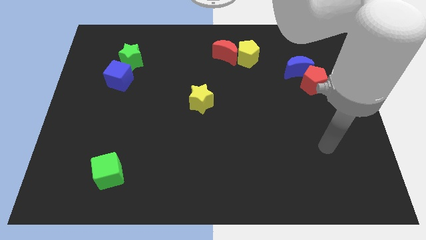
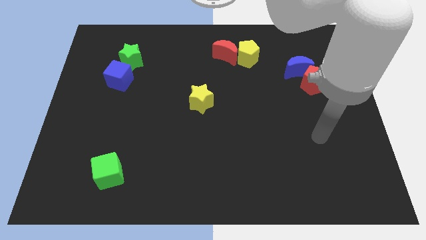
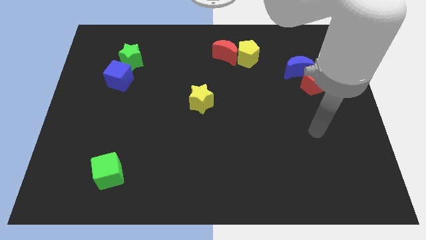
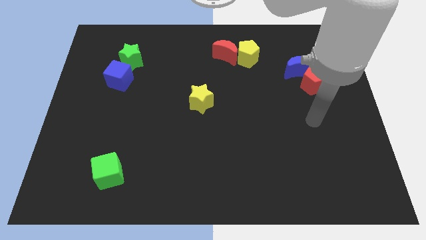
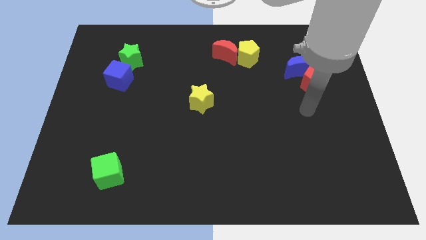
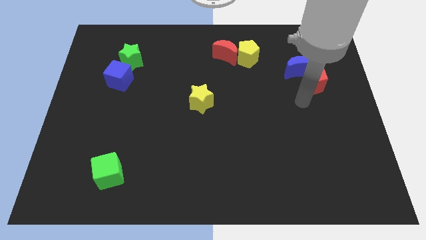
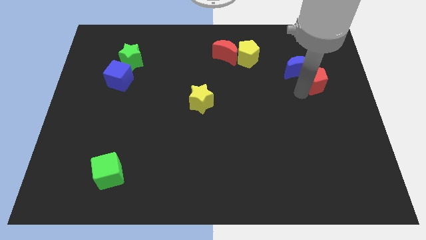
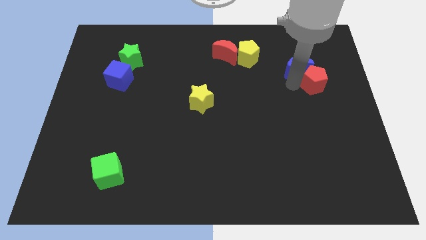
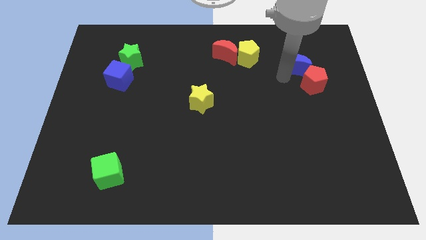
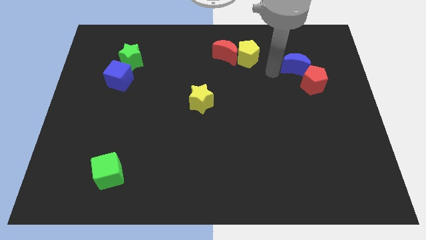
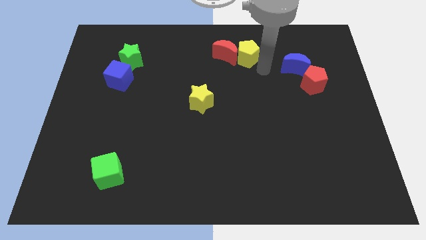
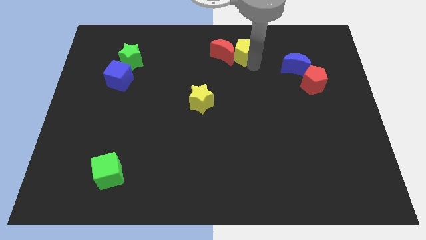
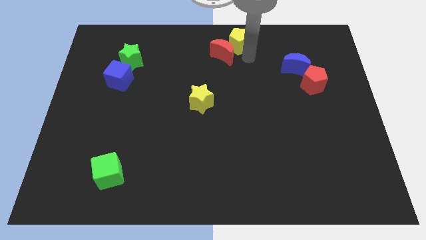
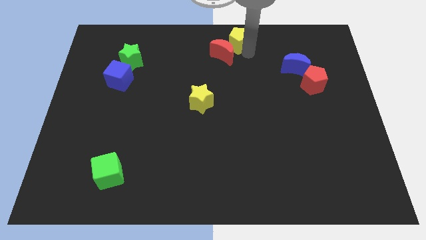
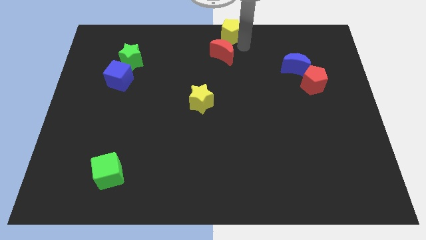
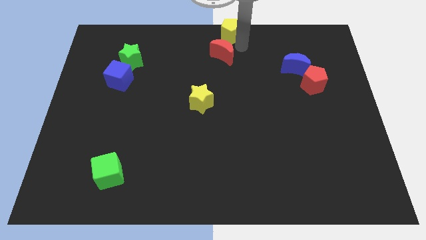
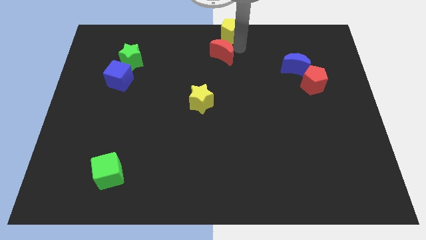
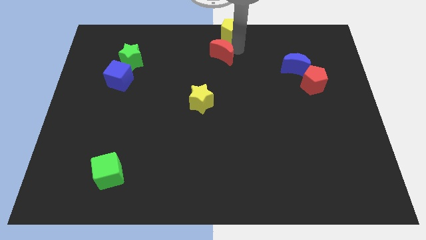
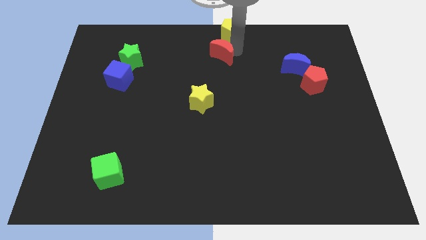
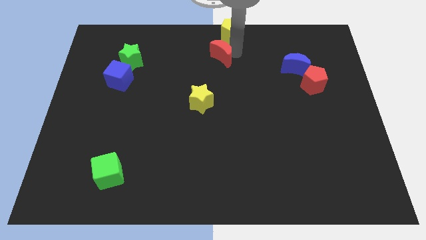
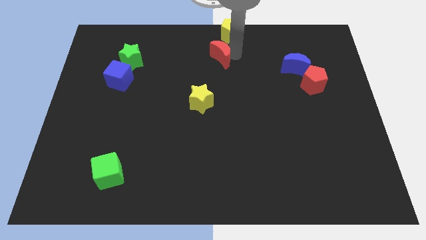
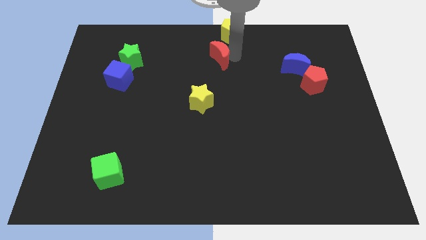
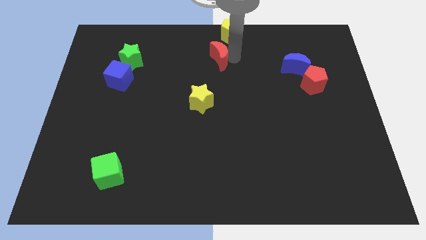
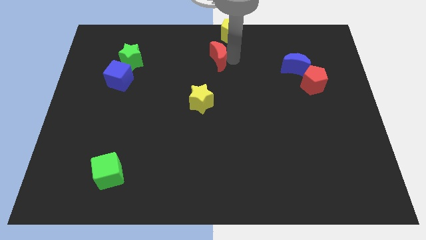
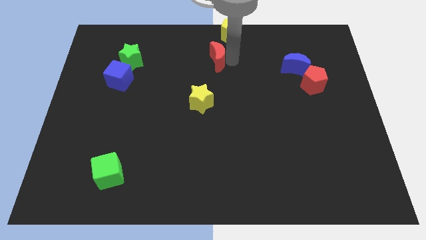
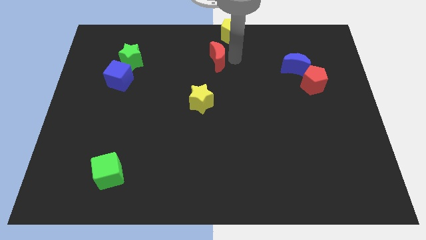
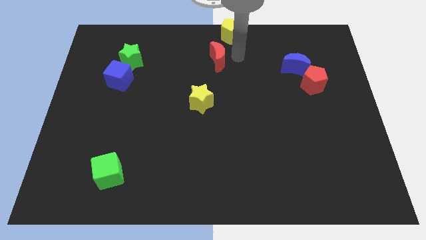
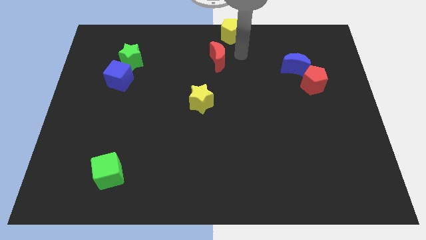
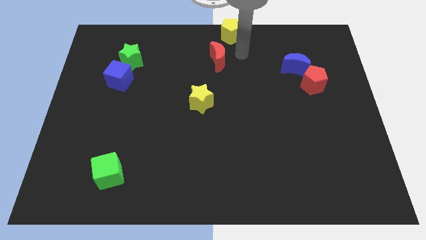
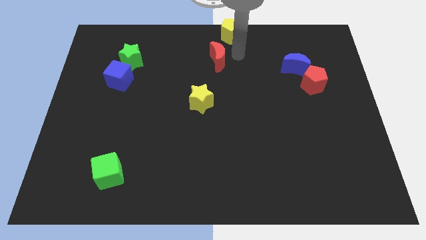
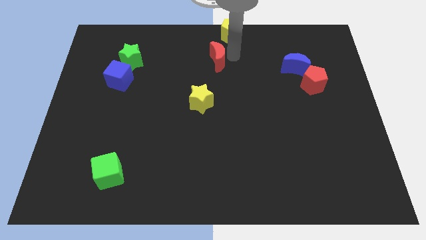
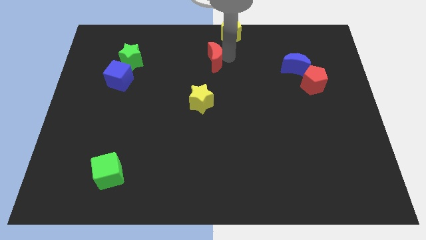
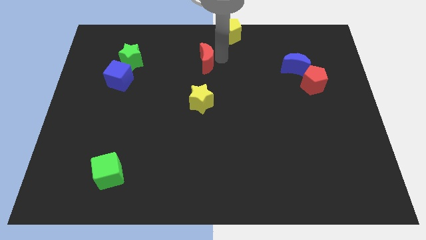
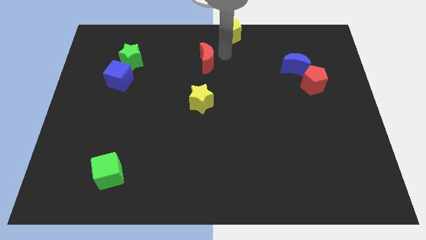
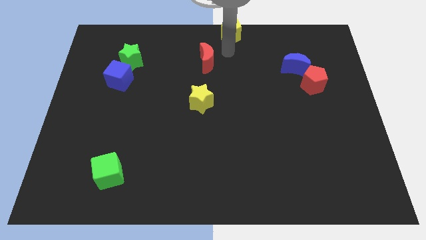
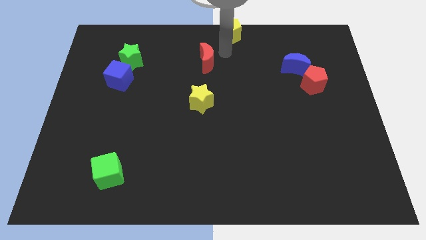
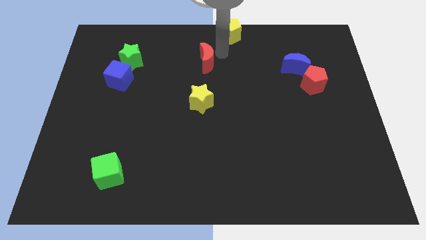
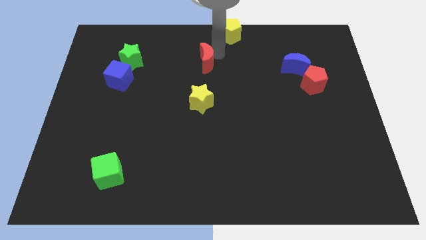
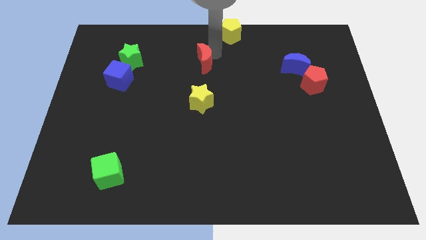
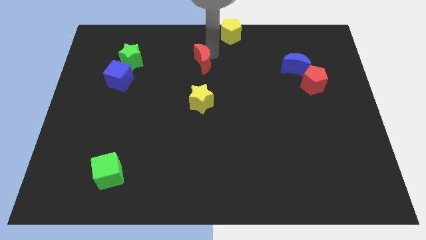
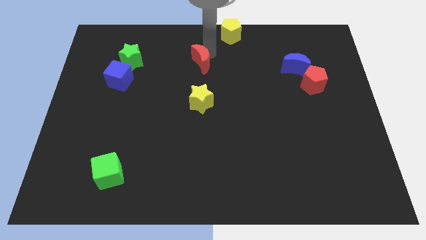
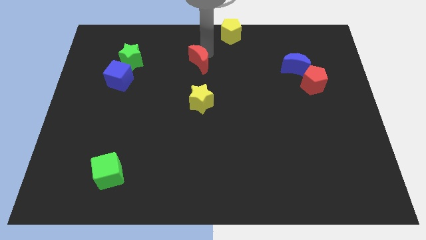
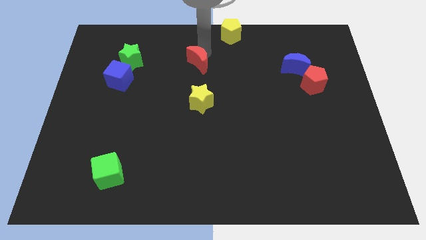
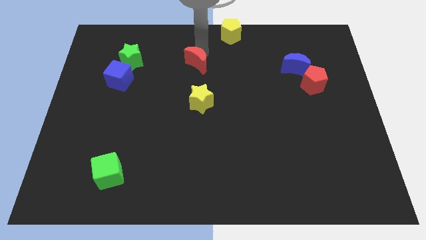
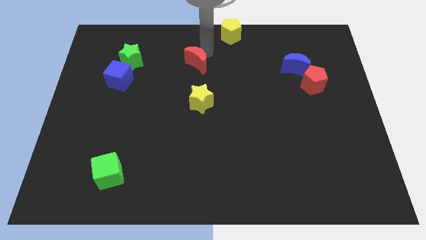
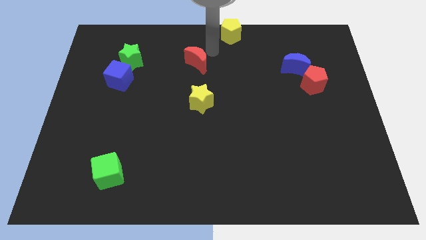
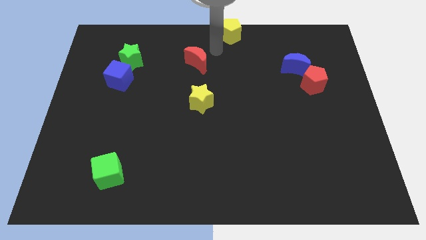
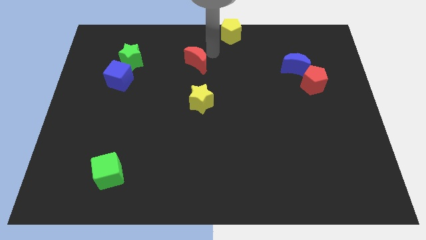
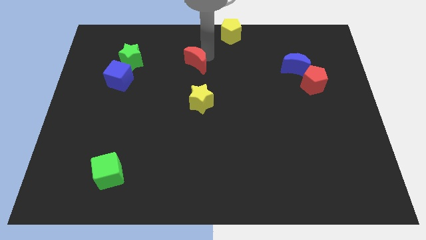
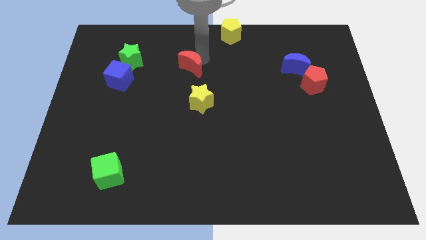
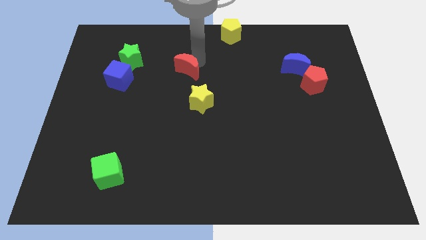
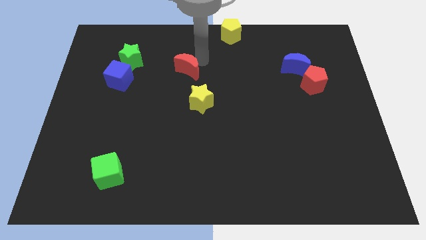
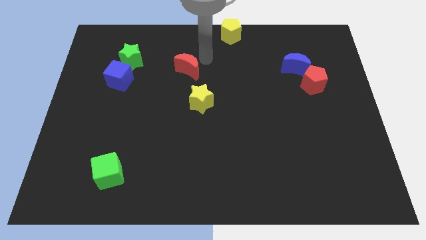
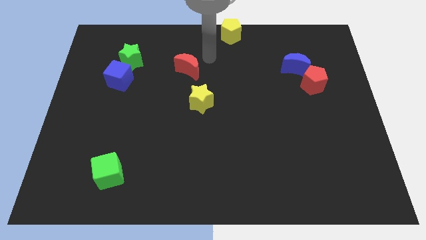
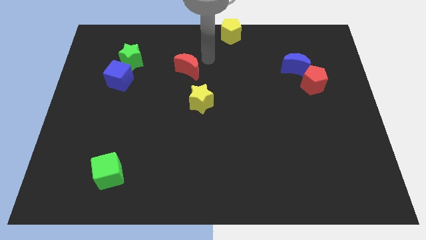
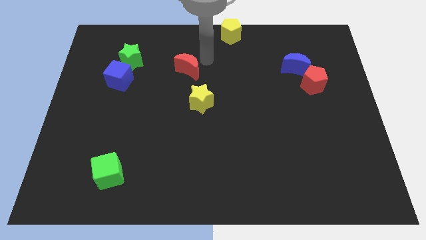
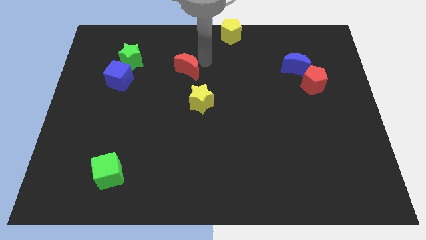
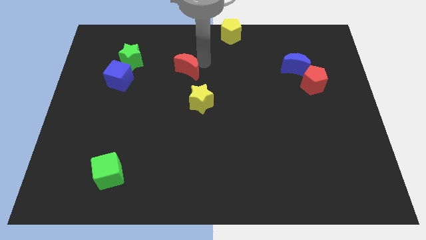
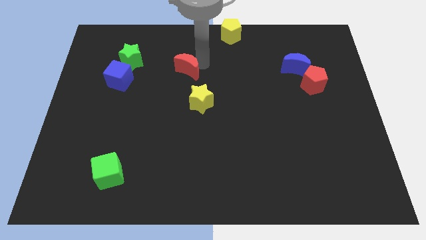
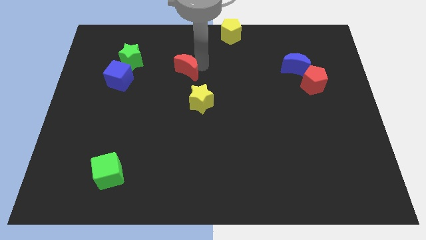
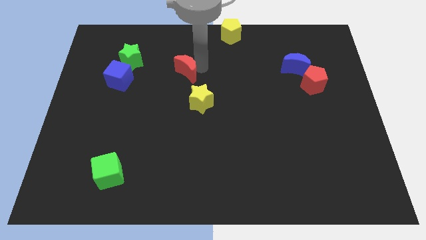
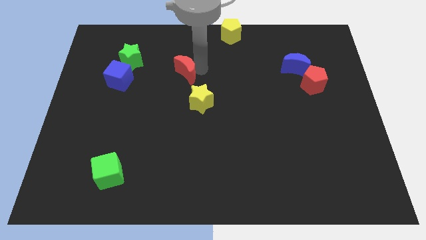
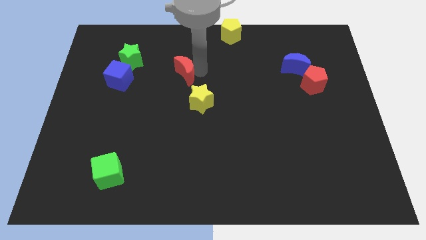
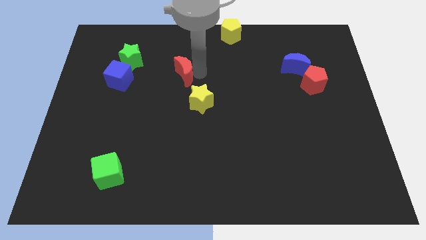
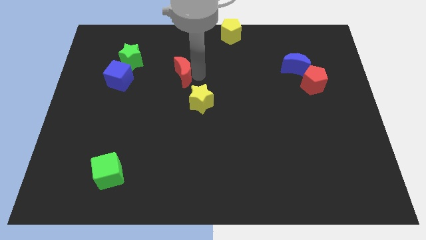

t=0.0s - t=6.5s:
push the red moon right of the blue cube
